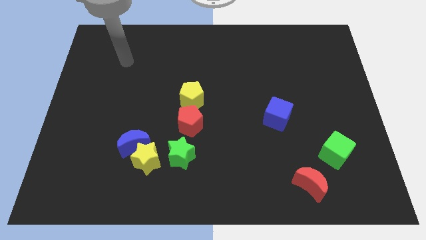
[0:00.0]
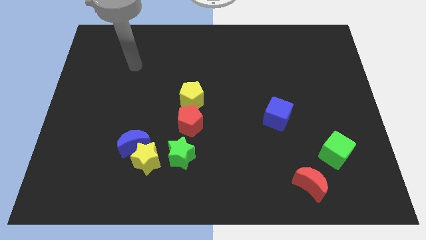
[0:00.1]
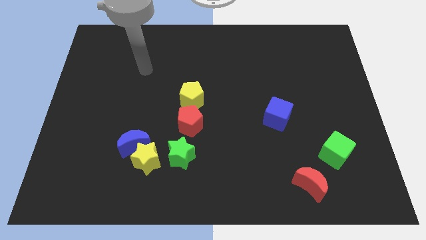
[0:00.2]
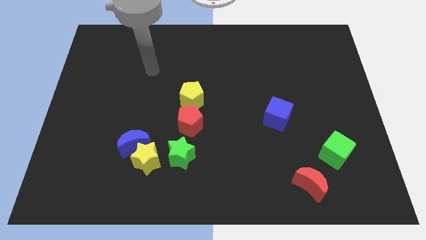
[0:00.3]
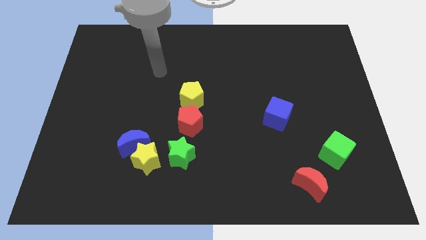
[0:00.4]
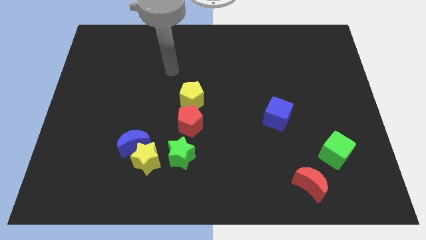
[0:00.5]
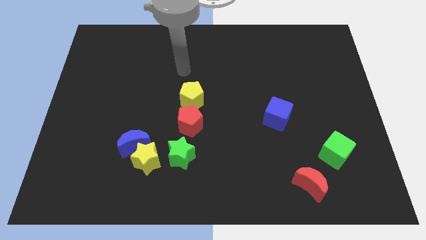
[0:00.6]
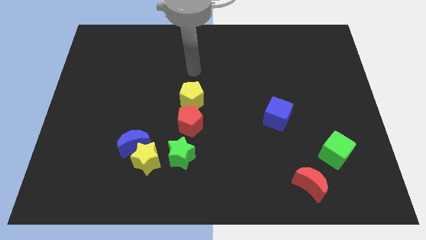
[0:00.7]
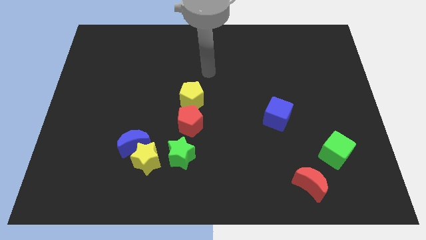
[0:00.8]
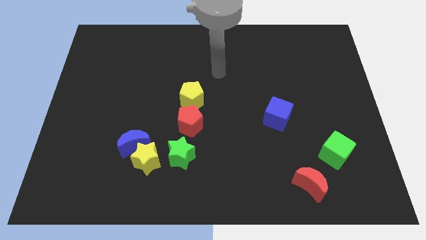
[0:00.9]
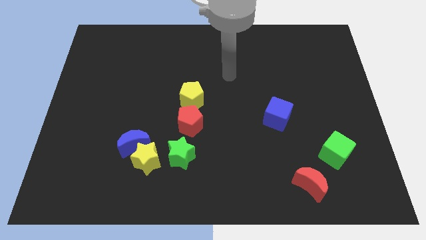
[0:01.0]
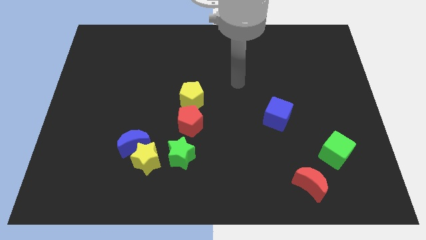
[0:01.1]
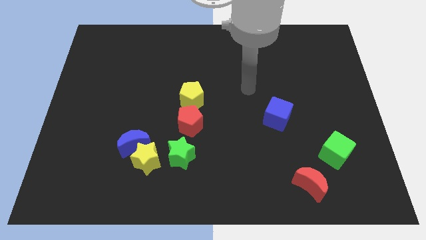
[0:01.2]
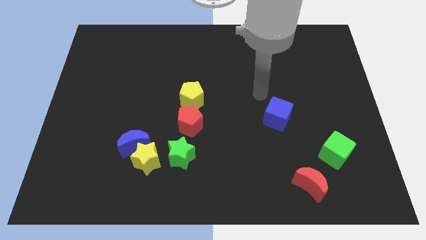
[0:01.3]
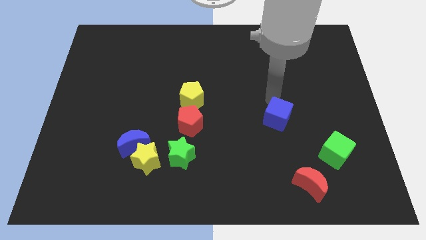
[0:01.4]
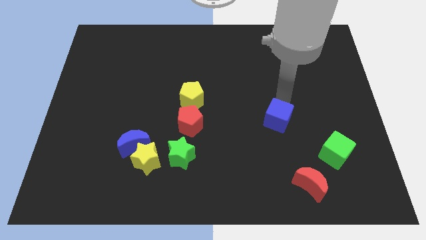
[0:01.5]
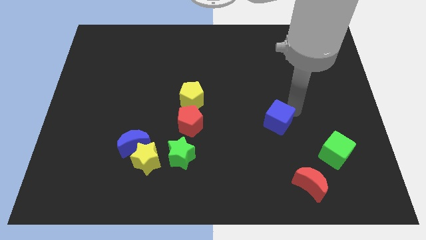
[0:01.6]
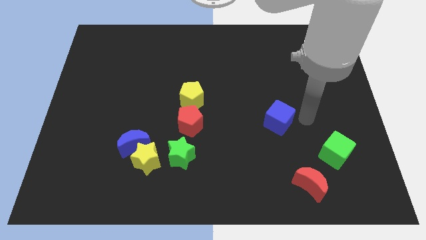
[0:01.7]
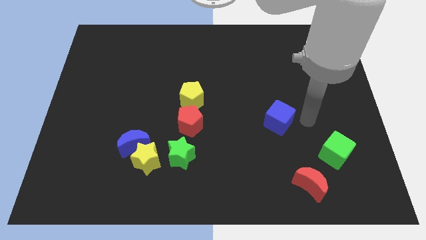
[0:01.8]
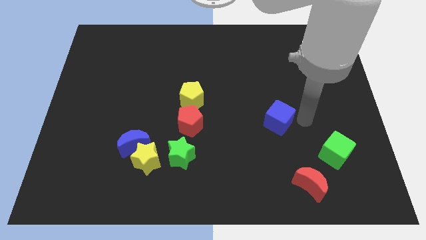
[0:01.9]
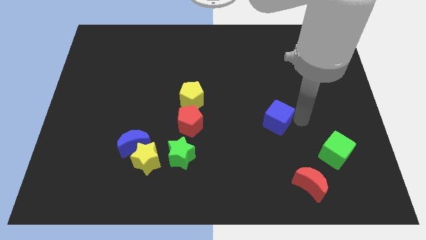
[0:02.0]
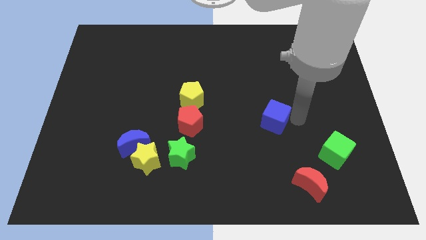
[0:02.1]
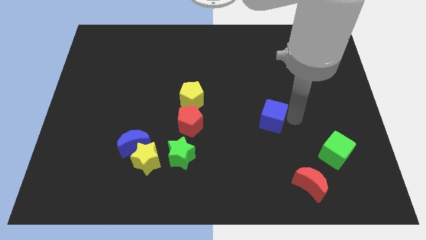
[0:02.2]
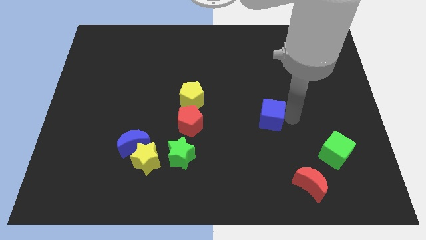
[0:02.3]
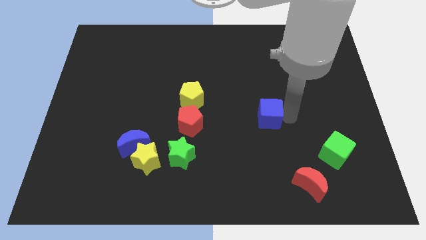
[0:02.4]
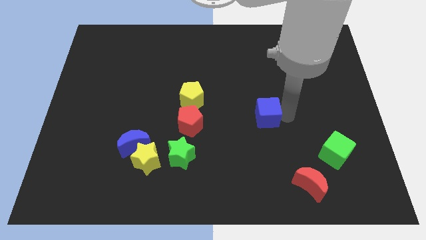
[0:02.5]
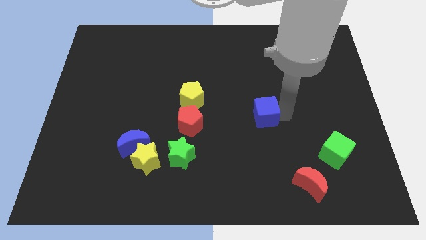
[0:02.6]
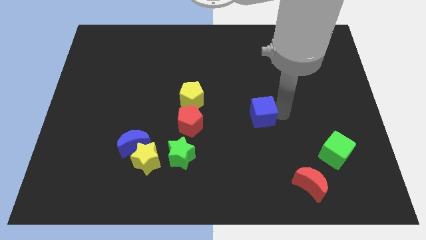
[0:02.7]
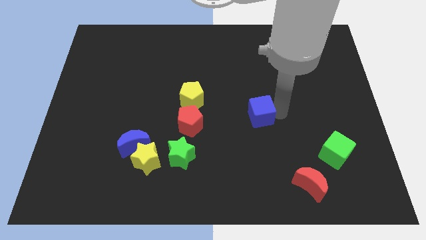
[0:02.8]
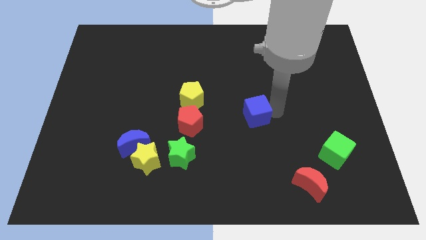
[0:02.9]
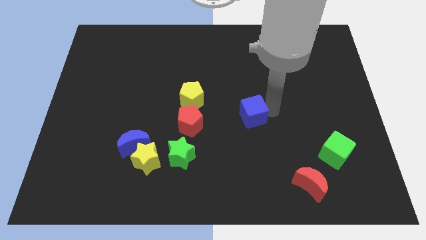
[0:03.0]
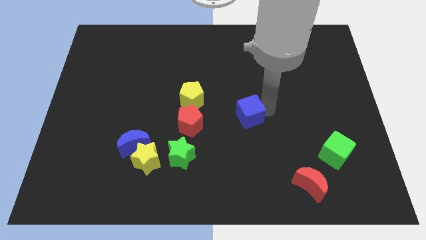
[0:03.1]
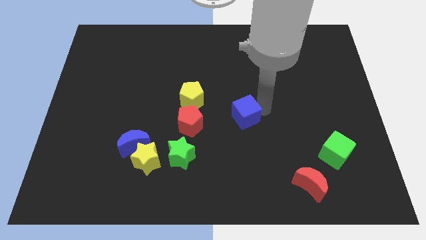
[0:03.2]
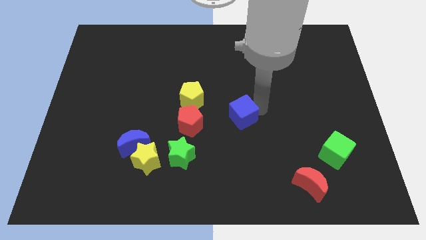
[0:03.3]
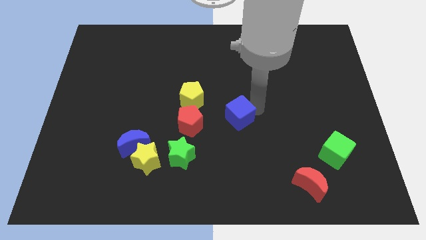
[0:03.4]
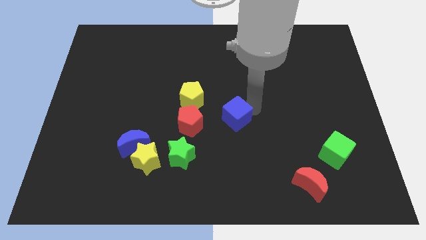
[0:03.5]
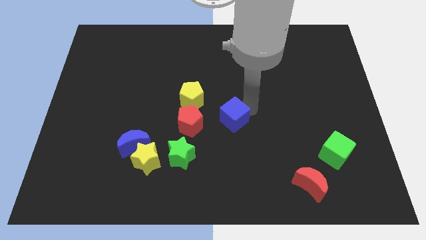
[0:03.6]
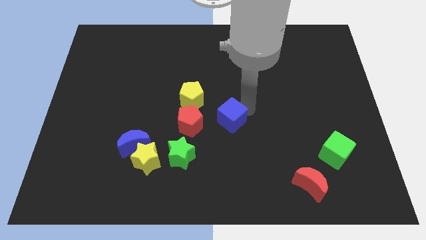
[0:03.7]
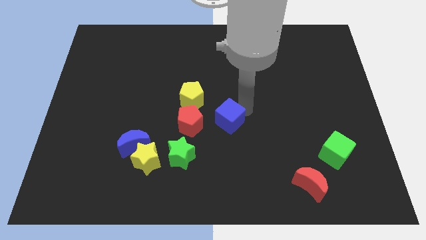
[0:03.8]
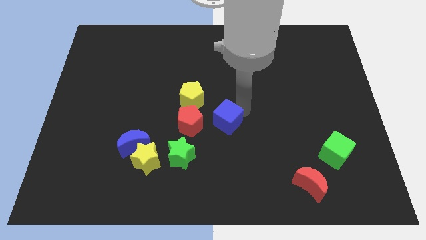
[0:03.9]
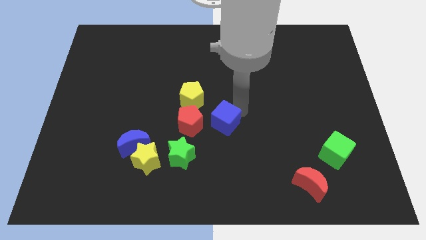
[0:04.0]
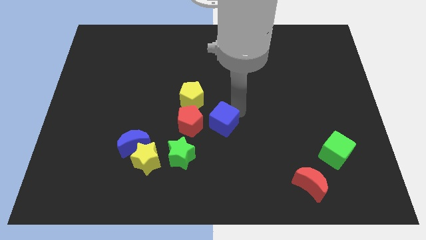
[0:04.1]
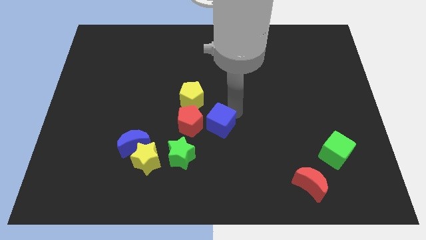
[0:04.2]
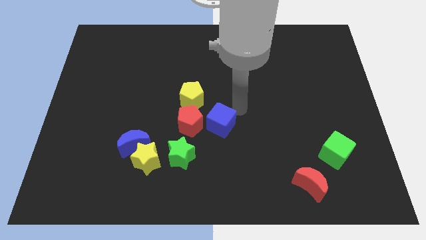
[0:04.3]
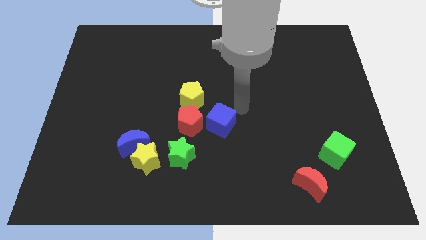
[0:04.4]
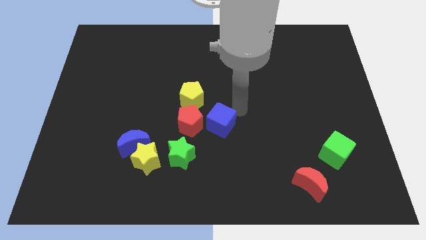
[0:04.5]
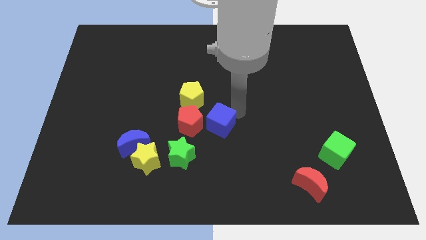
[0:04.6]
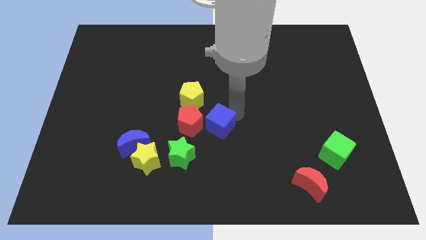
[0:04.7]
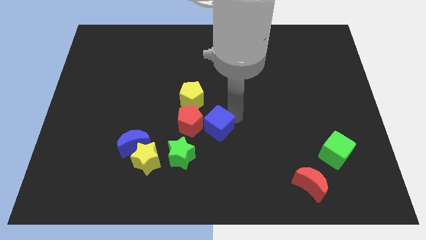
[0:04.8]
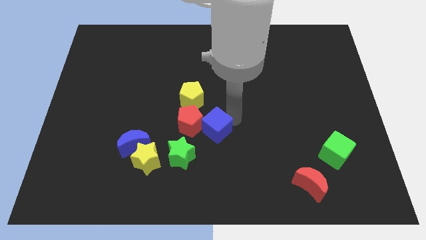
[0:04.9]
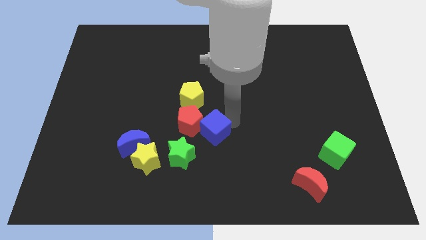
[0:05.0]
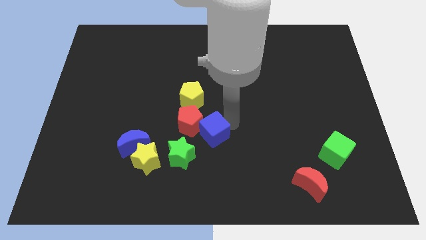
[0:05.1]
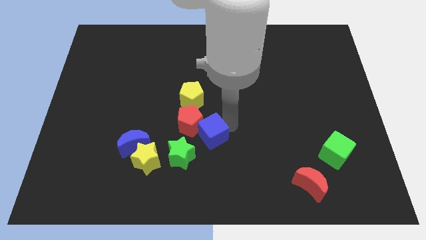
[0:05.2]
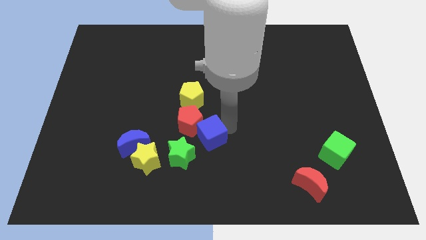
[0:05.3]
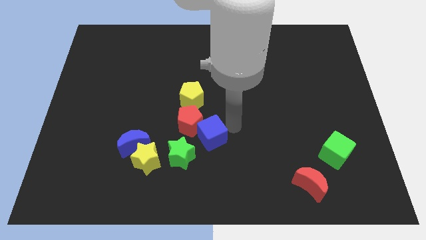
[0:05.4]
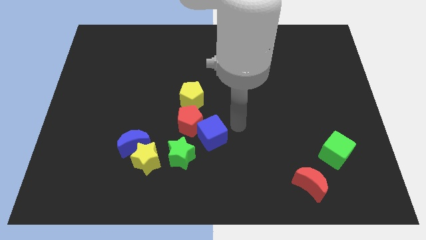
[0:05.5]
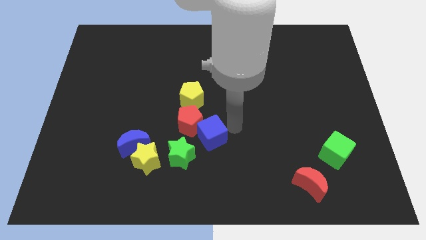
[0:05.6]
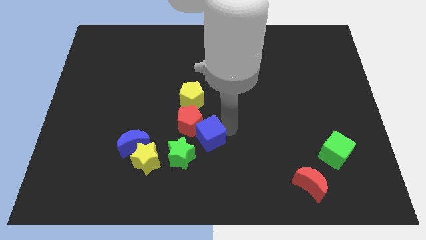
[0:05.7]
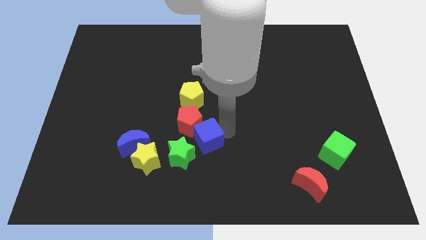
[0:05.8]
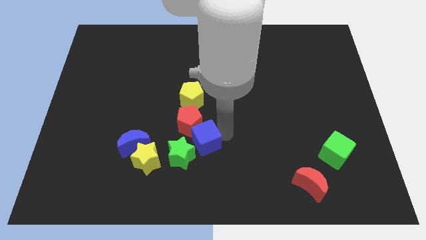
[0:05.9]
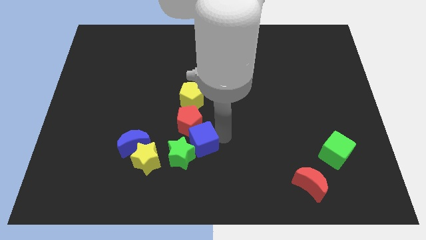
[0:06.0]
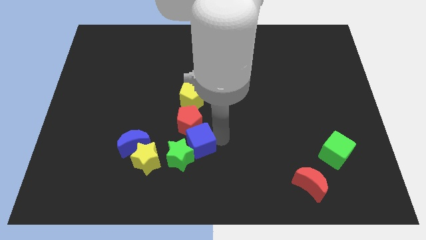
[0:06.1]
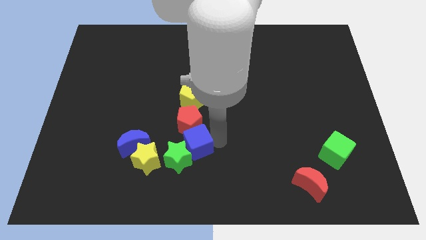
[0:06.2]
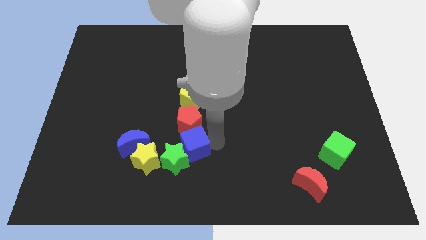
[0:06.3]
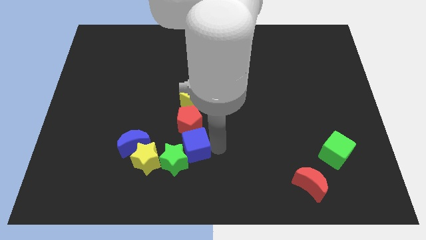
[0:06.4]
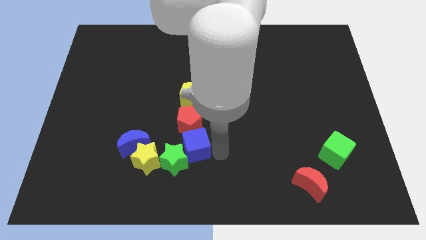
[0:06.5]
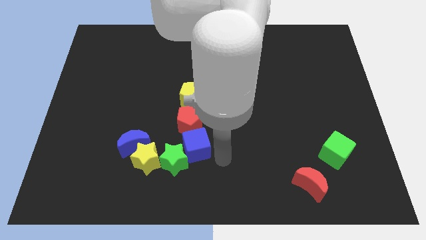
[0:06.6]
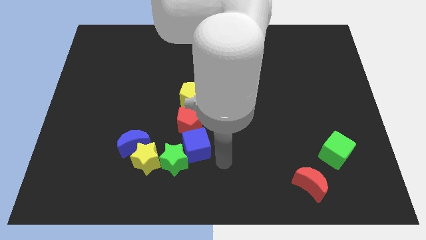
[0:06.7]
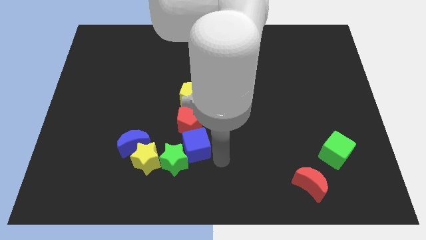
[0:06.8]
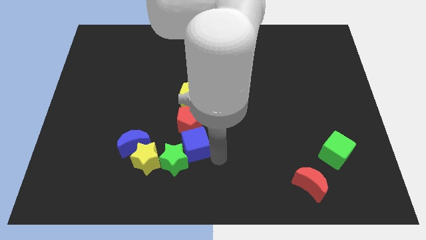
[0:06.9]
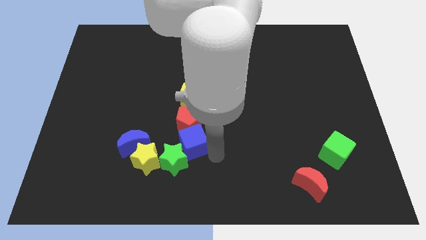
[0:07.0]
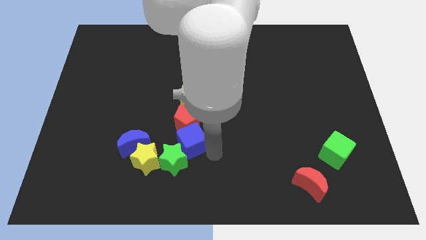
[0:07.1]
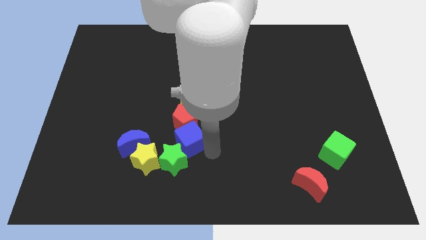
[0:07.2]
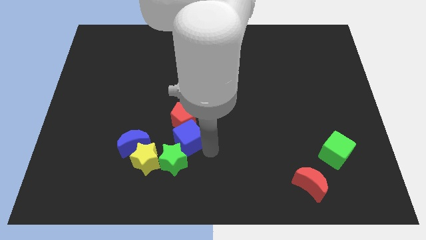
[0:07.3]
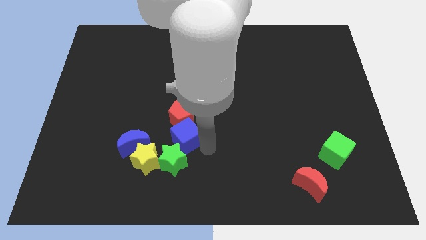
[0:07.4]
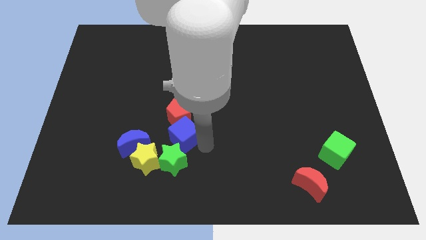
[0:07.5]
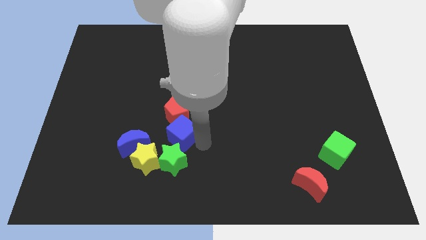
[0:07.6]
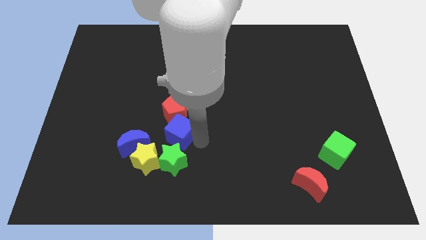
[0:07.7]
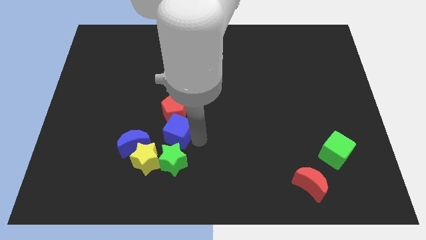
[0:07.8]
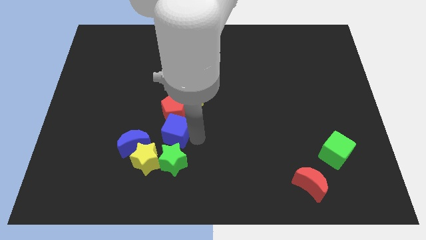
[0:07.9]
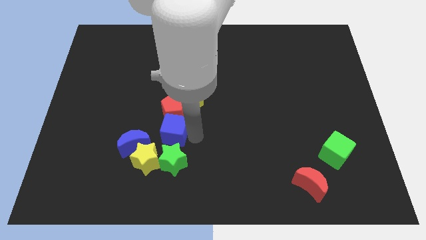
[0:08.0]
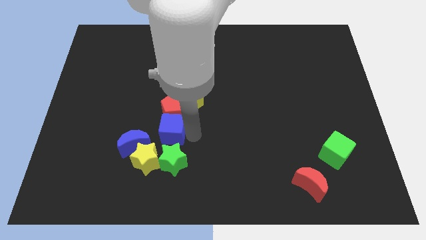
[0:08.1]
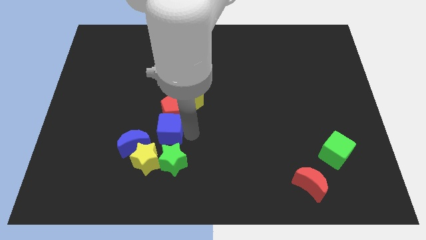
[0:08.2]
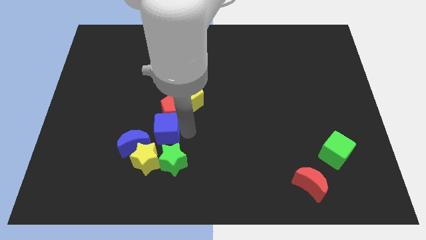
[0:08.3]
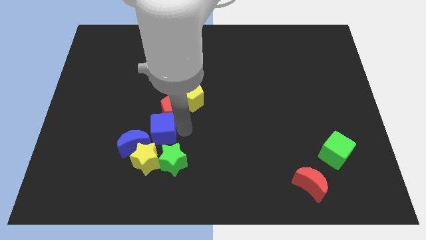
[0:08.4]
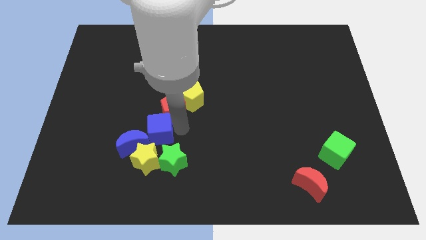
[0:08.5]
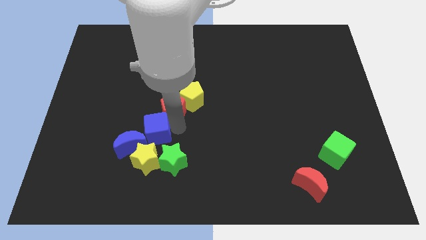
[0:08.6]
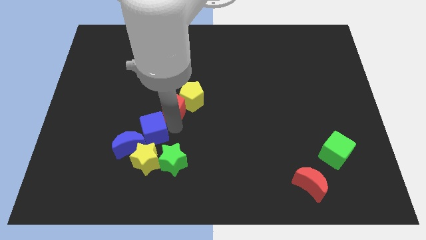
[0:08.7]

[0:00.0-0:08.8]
slide the blue cube towards the blue moon
